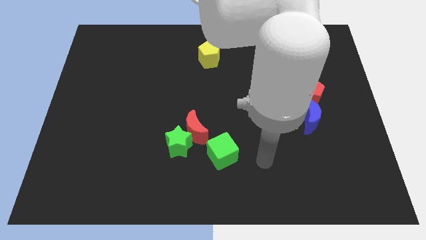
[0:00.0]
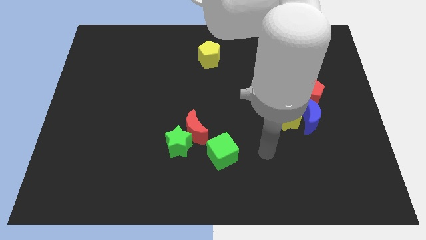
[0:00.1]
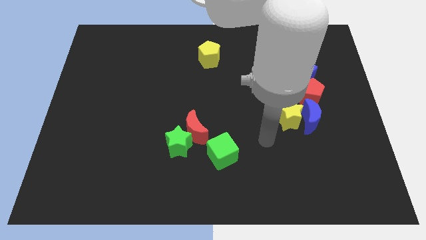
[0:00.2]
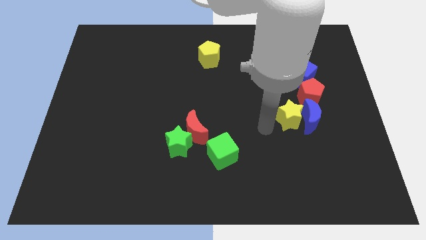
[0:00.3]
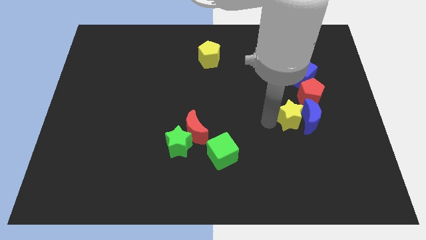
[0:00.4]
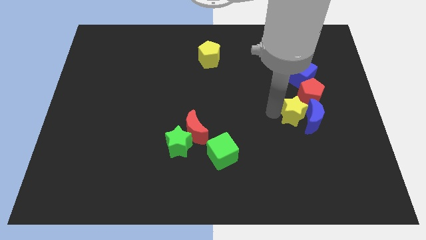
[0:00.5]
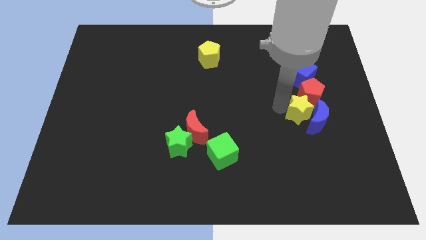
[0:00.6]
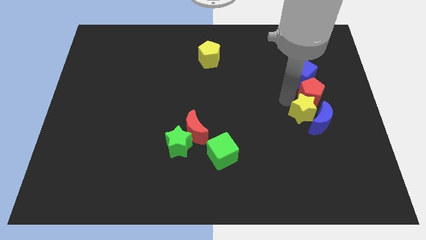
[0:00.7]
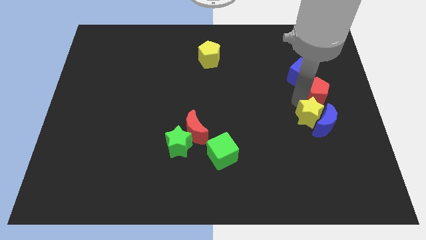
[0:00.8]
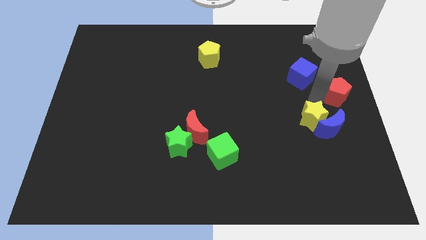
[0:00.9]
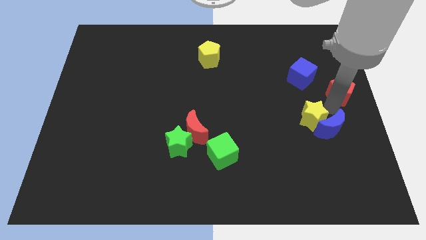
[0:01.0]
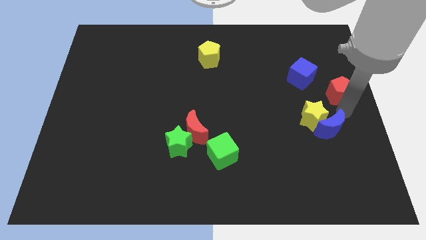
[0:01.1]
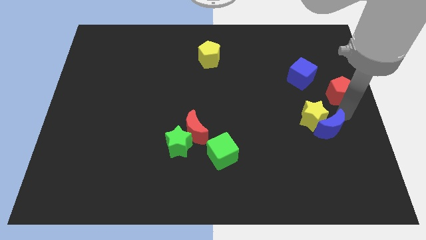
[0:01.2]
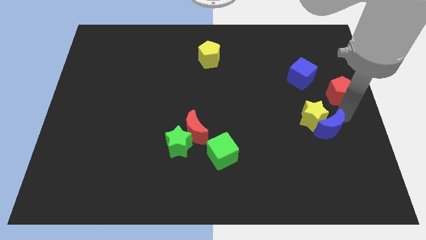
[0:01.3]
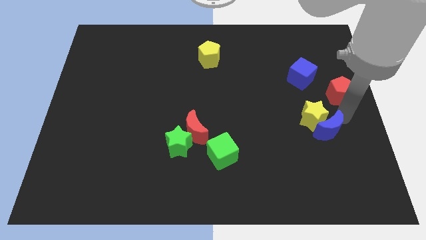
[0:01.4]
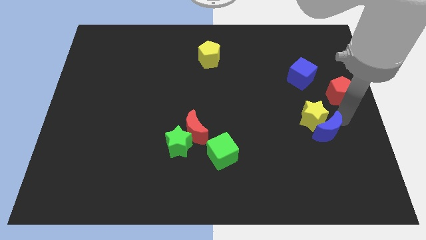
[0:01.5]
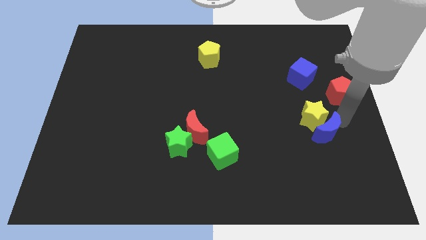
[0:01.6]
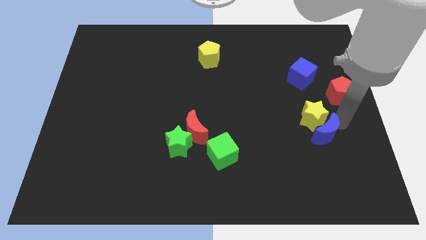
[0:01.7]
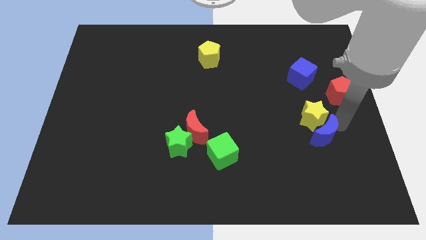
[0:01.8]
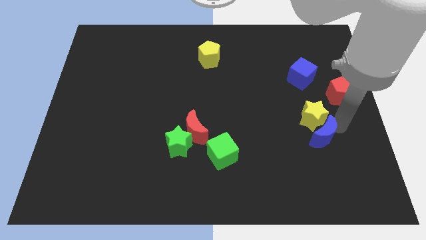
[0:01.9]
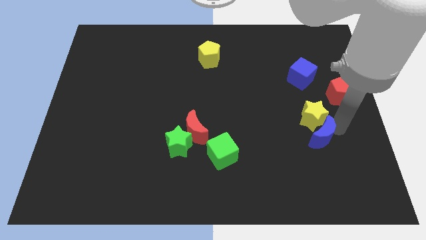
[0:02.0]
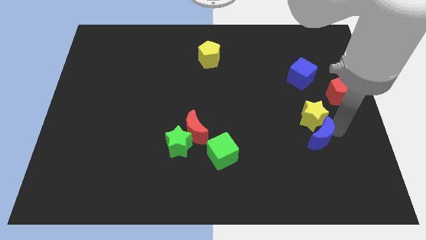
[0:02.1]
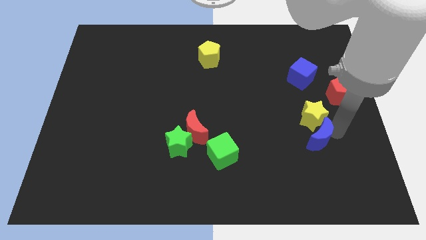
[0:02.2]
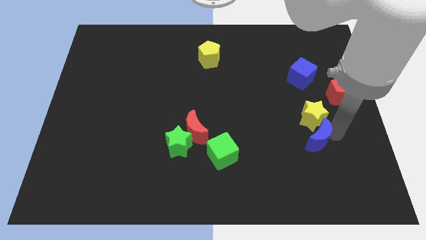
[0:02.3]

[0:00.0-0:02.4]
move the blue moon away from the yellow star and red pentagon

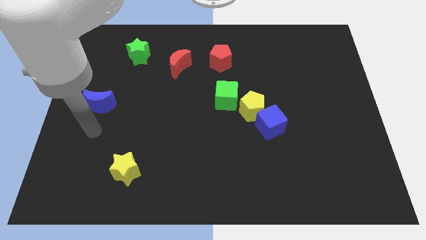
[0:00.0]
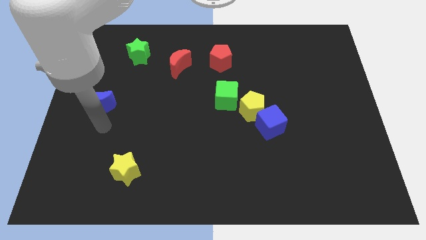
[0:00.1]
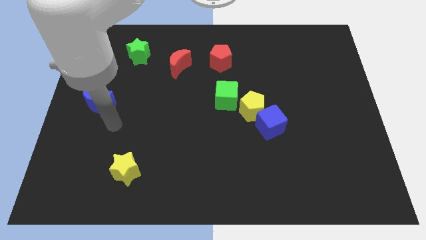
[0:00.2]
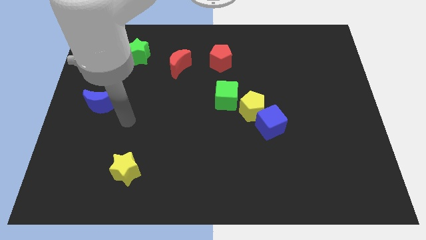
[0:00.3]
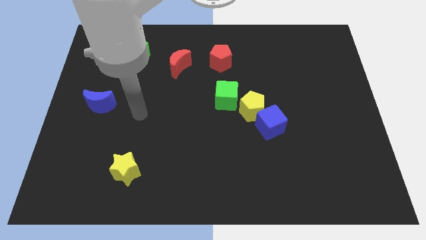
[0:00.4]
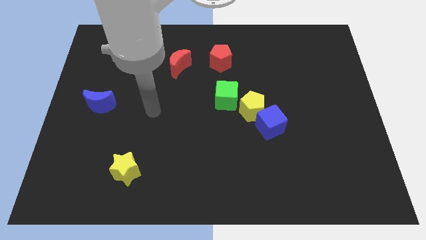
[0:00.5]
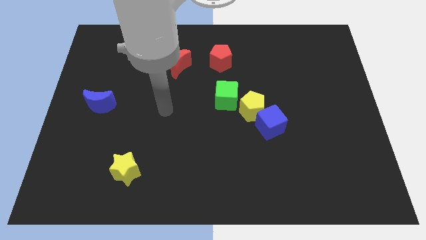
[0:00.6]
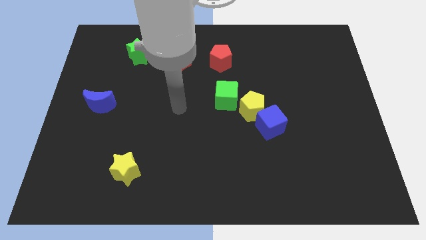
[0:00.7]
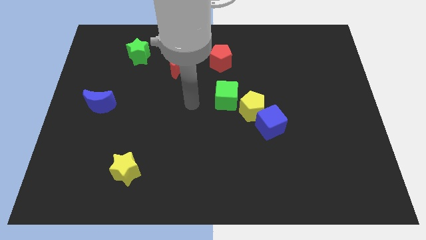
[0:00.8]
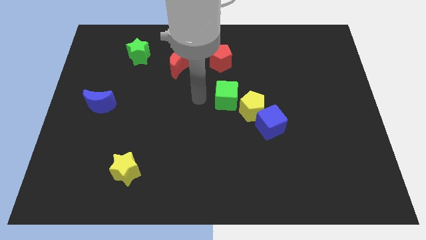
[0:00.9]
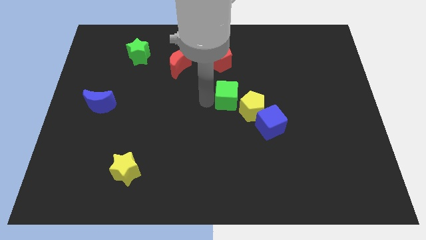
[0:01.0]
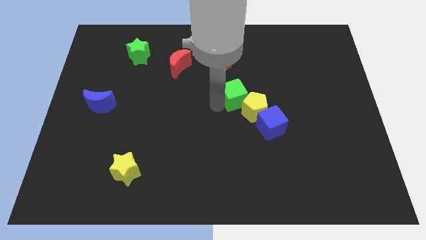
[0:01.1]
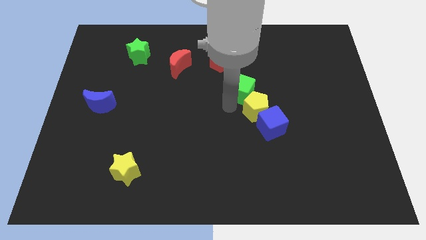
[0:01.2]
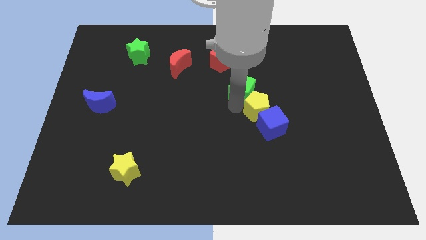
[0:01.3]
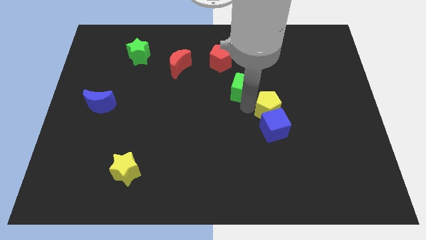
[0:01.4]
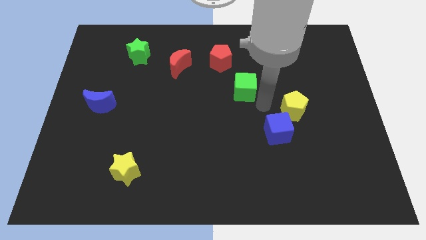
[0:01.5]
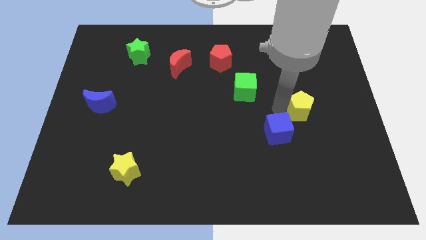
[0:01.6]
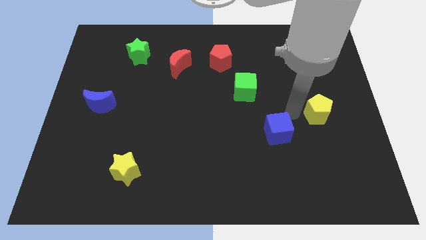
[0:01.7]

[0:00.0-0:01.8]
separate the blue cube from the yellow pentagon

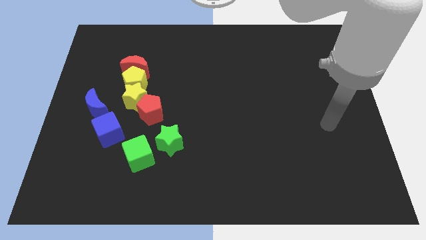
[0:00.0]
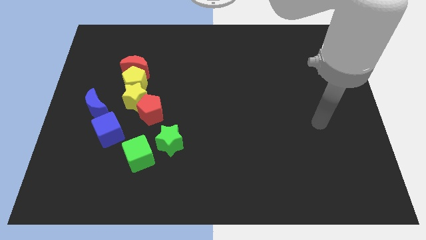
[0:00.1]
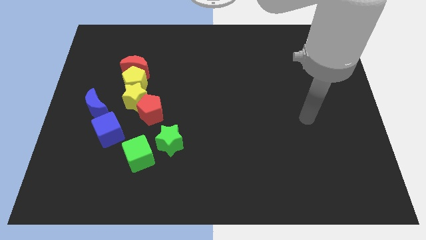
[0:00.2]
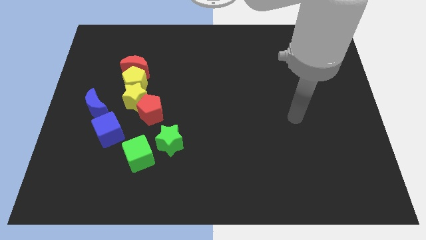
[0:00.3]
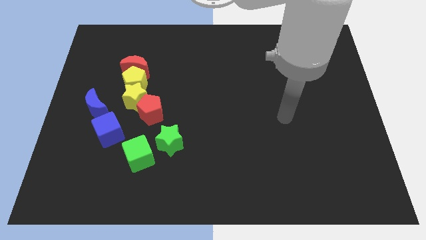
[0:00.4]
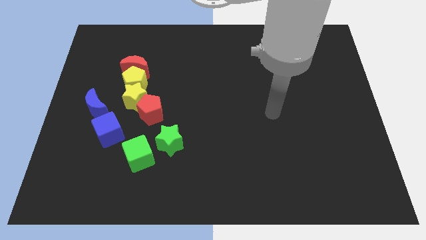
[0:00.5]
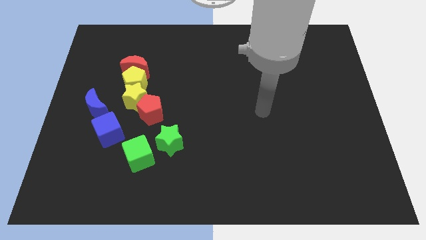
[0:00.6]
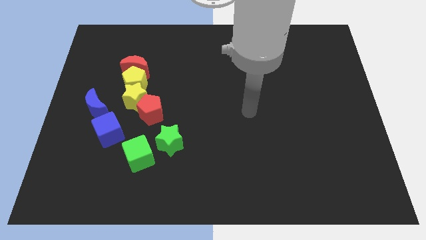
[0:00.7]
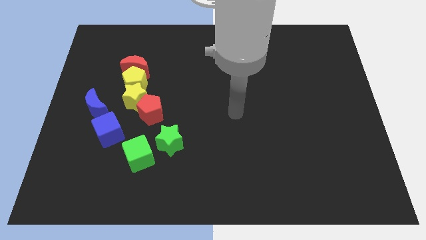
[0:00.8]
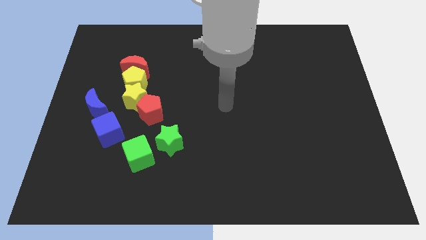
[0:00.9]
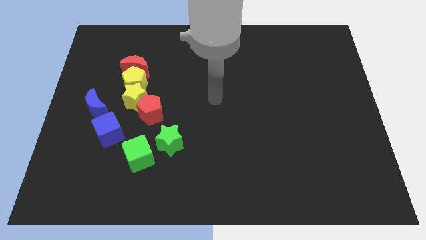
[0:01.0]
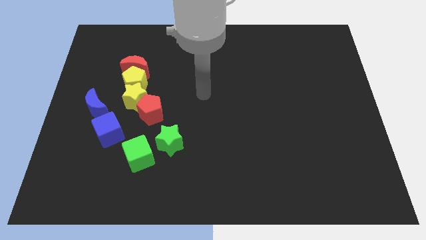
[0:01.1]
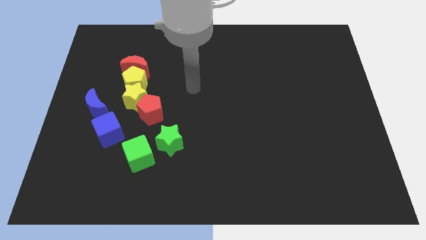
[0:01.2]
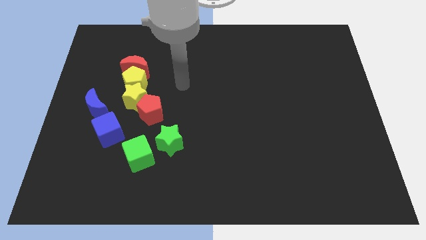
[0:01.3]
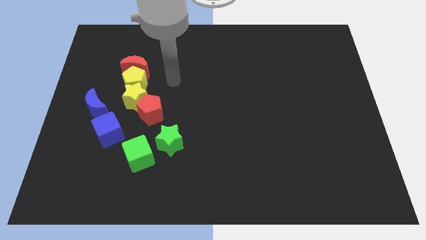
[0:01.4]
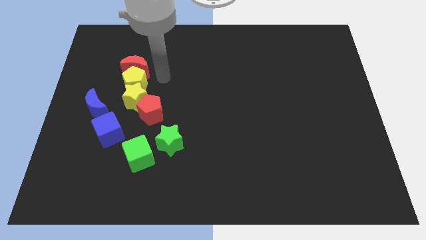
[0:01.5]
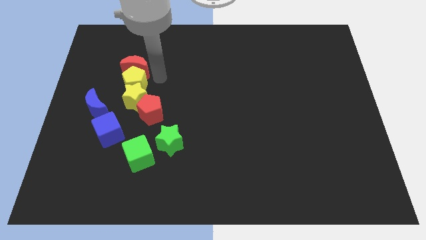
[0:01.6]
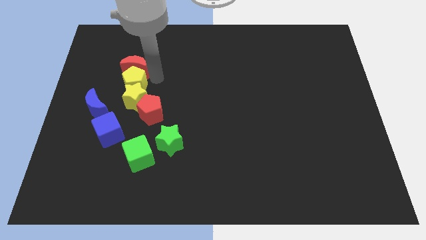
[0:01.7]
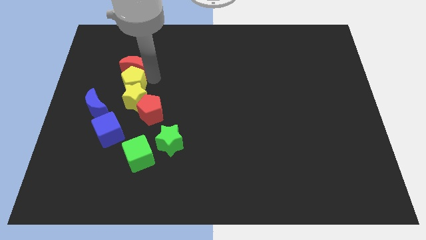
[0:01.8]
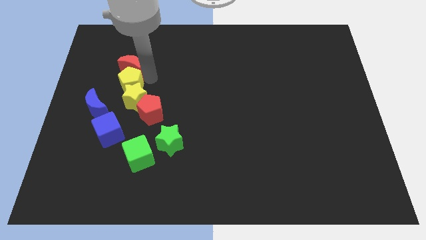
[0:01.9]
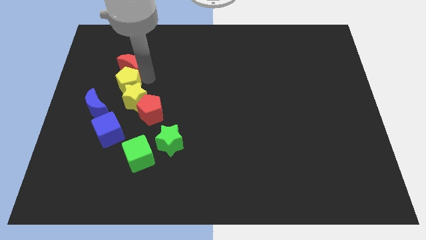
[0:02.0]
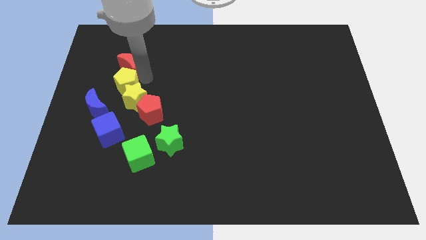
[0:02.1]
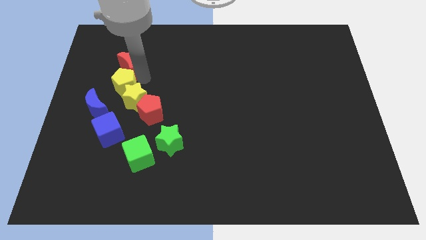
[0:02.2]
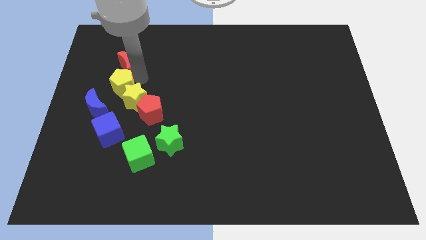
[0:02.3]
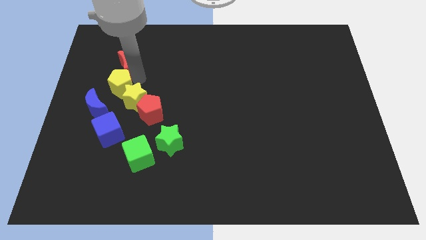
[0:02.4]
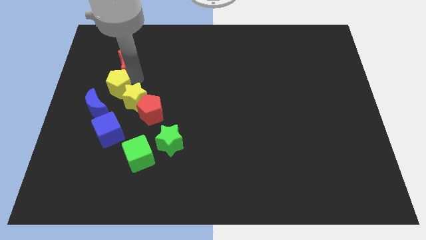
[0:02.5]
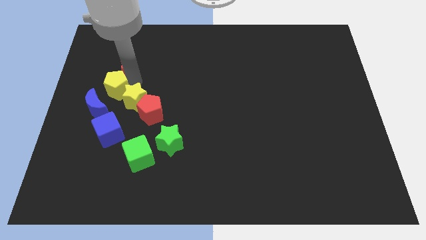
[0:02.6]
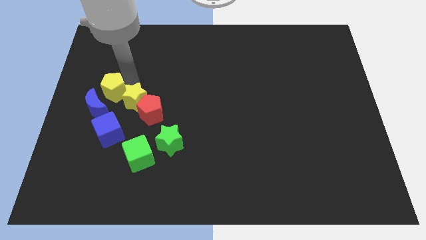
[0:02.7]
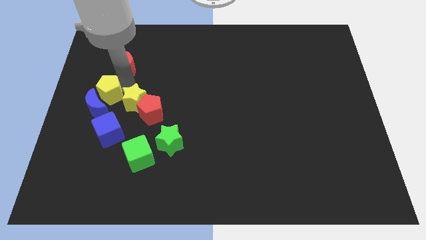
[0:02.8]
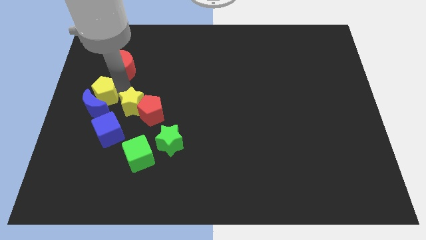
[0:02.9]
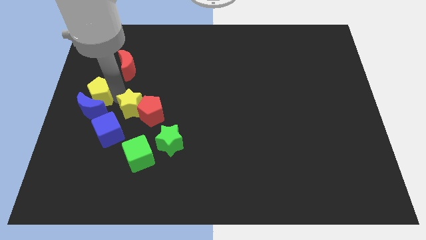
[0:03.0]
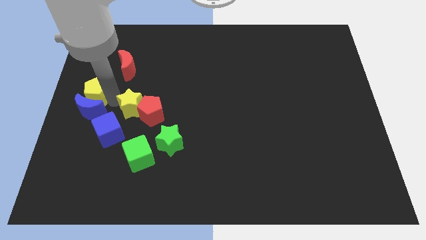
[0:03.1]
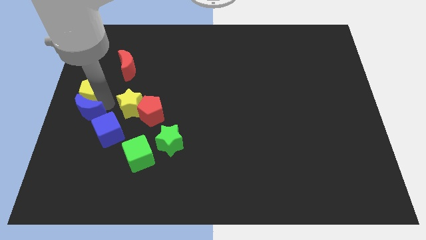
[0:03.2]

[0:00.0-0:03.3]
move the yellow pentagon away from the group of blocks

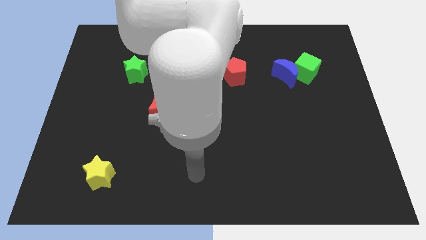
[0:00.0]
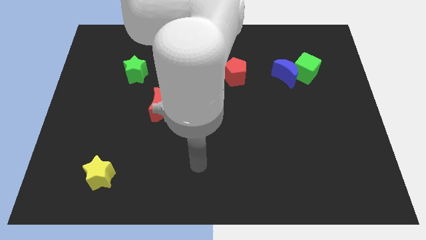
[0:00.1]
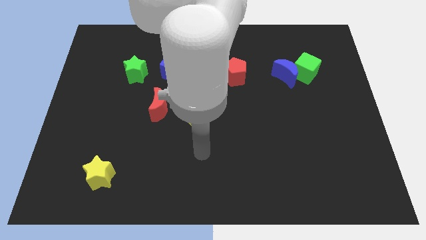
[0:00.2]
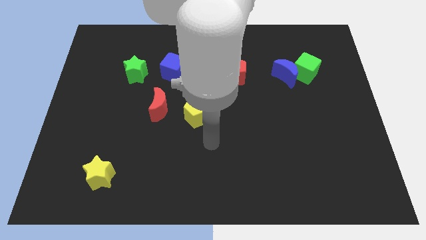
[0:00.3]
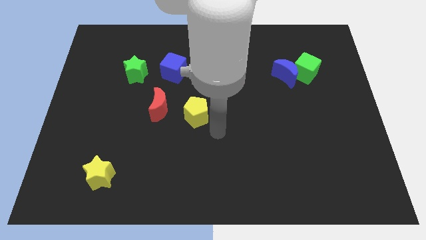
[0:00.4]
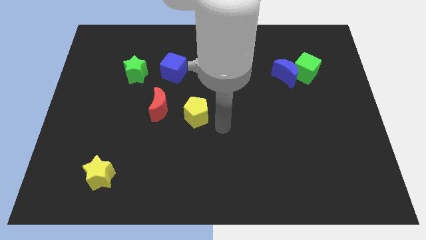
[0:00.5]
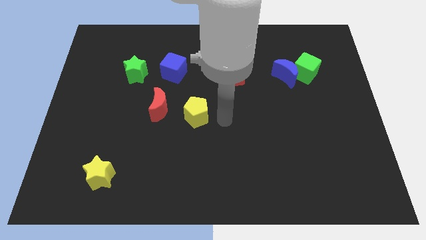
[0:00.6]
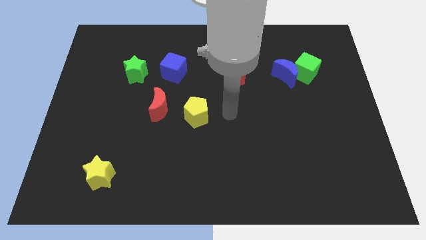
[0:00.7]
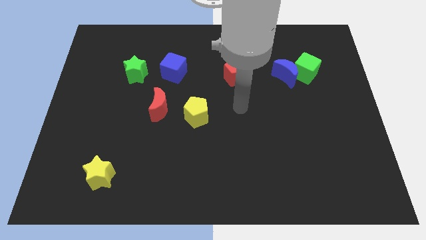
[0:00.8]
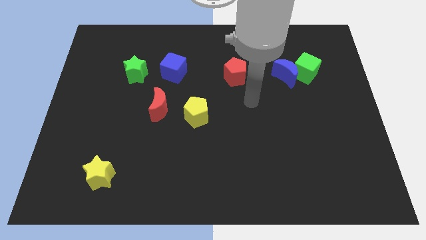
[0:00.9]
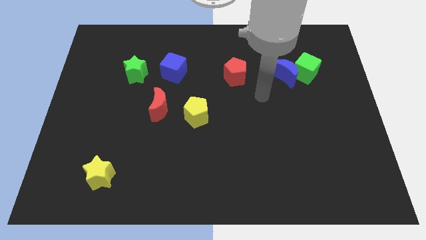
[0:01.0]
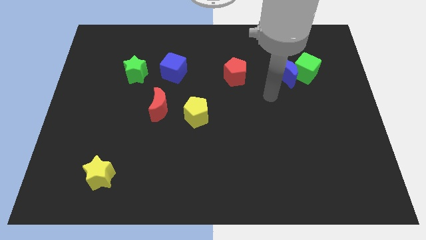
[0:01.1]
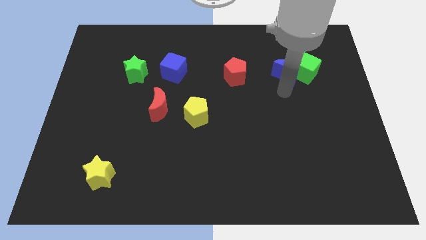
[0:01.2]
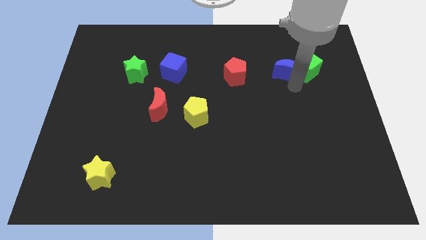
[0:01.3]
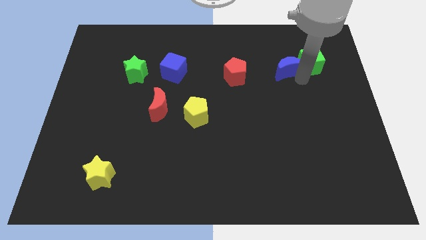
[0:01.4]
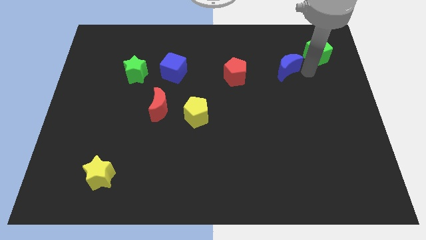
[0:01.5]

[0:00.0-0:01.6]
pull the blue moon apart from the green cube

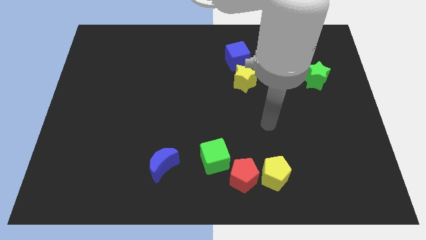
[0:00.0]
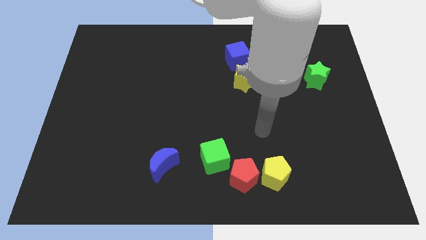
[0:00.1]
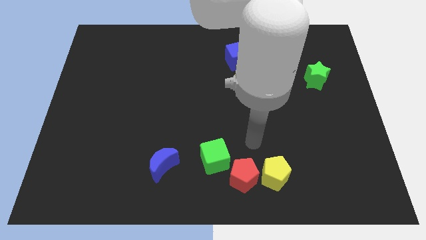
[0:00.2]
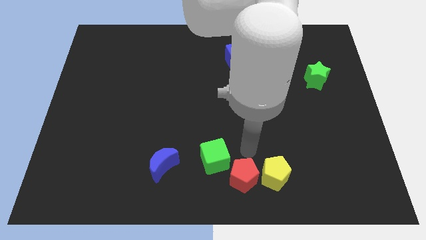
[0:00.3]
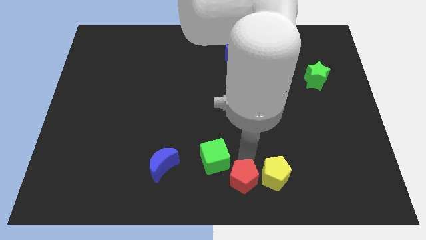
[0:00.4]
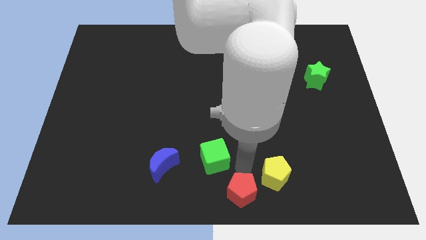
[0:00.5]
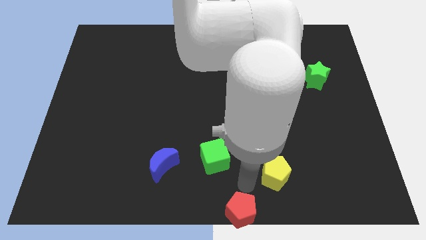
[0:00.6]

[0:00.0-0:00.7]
separate the yellow pentagon from the red pentagon
